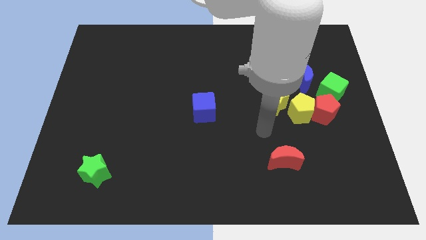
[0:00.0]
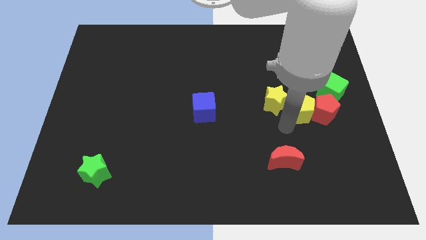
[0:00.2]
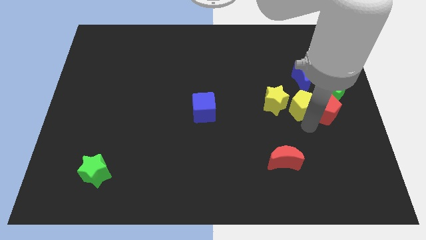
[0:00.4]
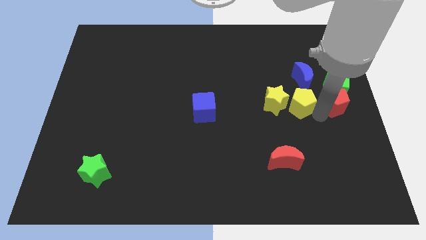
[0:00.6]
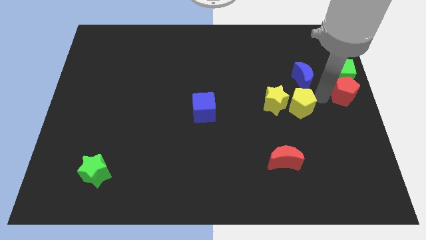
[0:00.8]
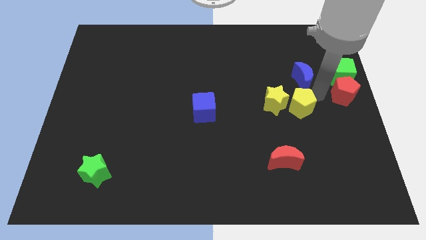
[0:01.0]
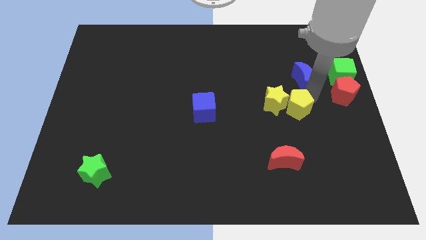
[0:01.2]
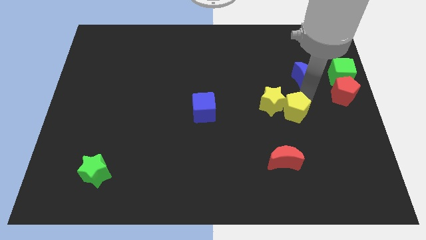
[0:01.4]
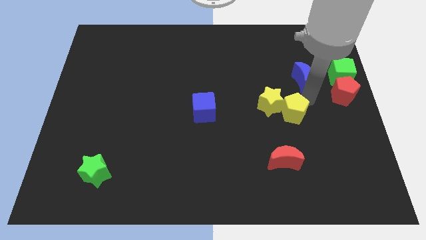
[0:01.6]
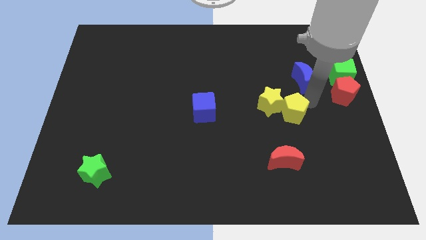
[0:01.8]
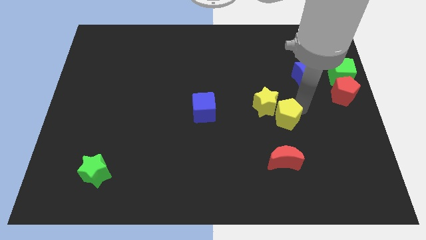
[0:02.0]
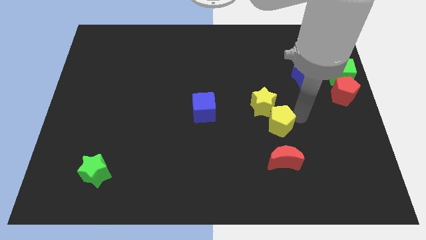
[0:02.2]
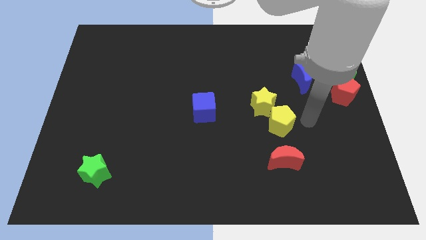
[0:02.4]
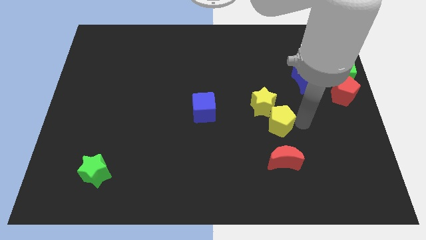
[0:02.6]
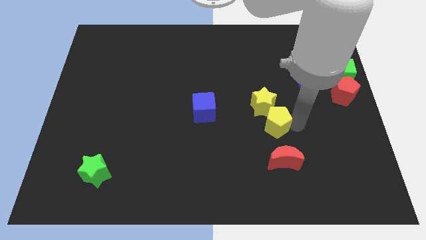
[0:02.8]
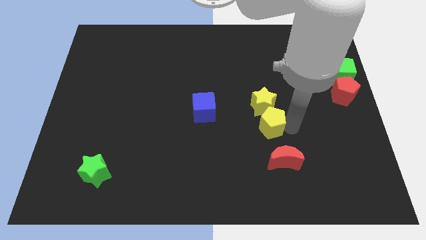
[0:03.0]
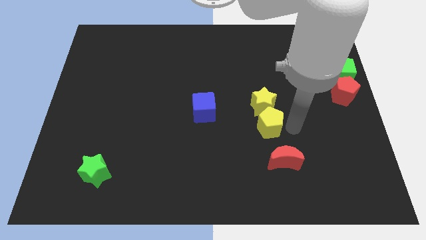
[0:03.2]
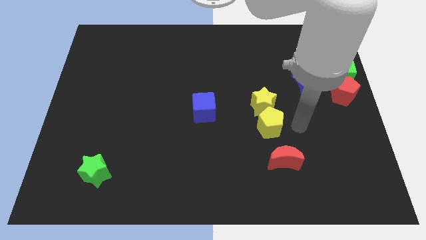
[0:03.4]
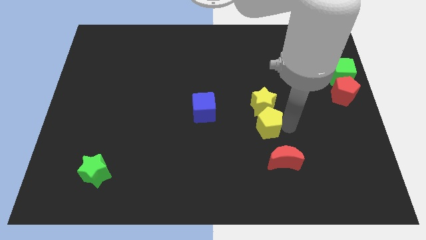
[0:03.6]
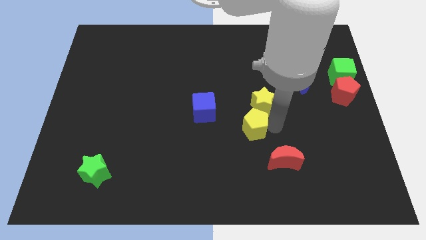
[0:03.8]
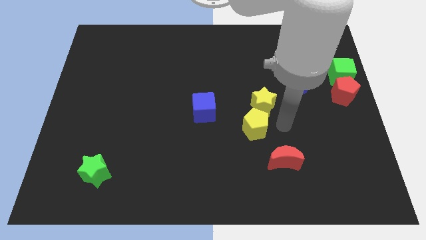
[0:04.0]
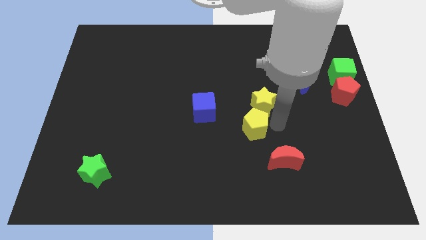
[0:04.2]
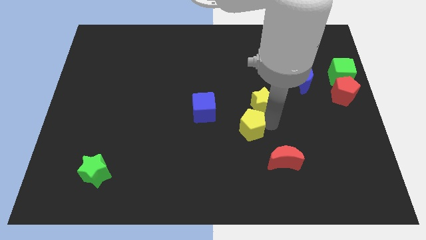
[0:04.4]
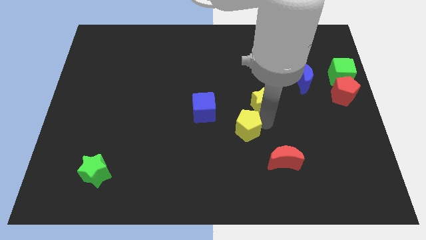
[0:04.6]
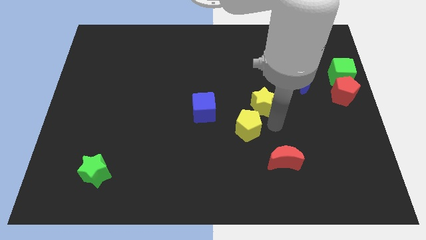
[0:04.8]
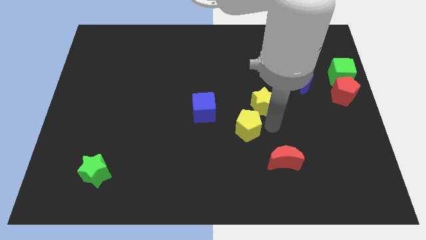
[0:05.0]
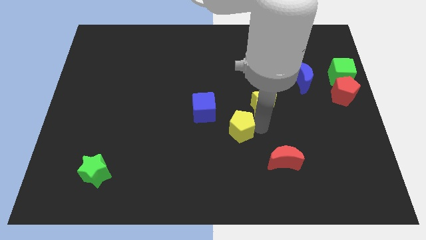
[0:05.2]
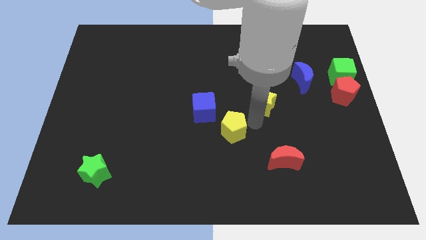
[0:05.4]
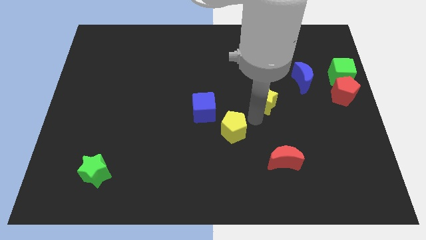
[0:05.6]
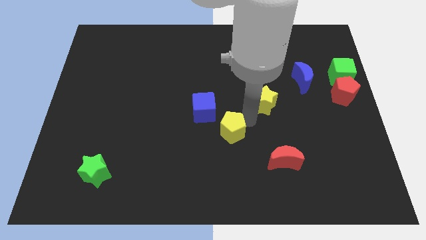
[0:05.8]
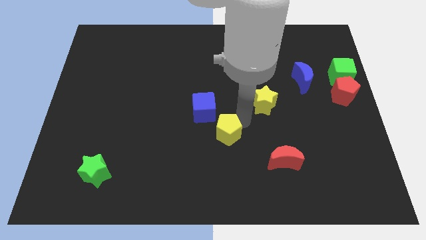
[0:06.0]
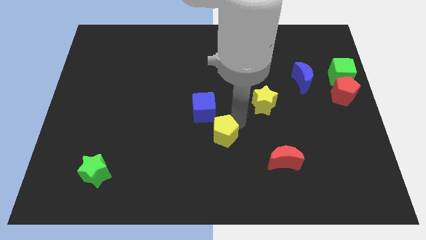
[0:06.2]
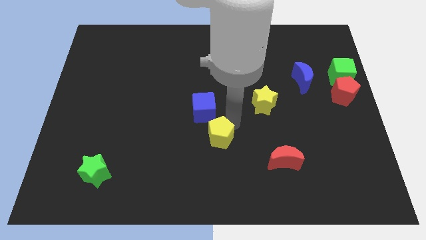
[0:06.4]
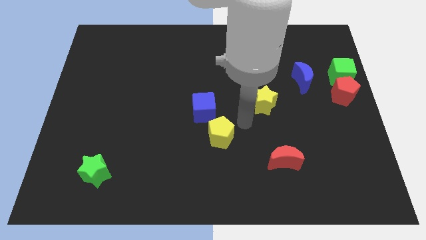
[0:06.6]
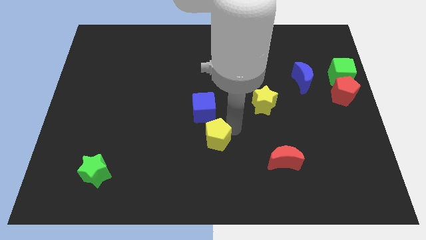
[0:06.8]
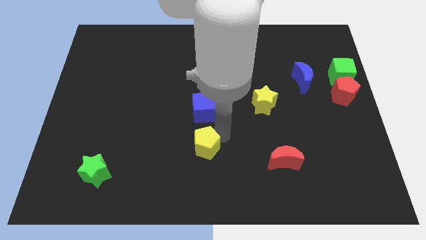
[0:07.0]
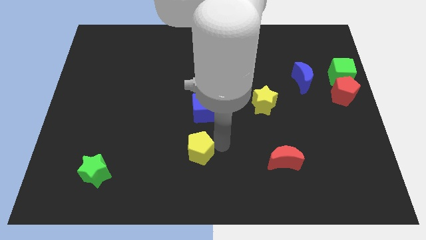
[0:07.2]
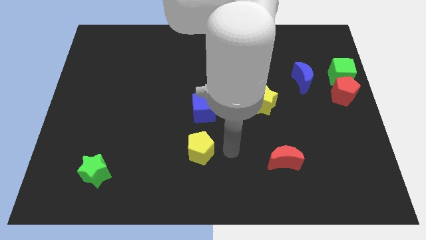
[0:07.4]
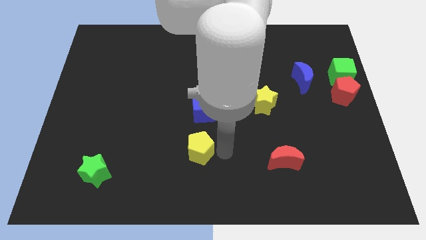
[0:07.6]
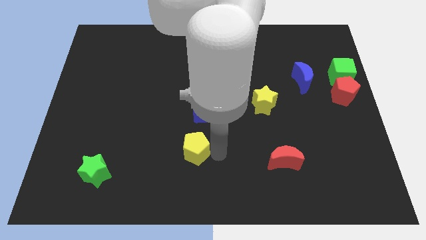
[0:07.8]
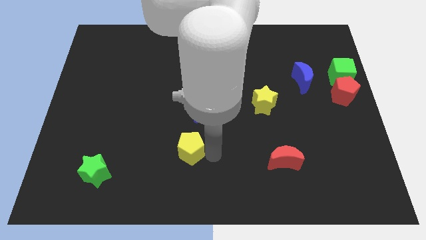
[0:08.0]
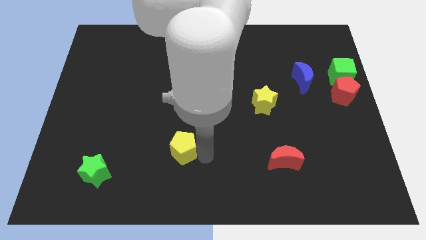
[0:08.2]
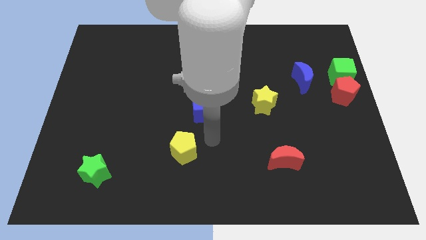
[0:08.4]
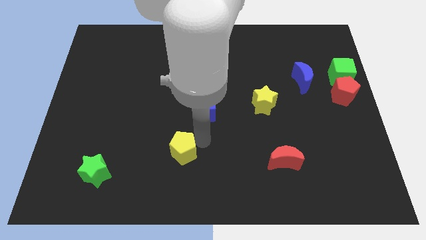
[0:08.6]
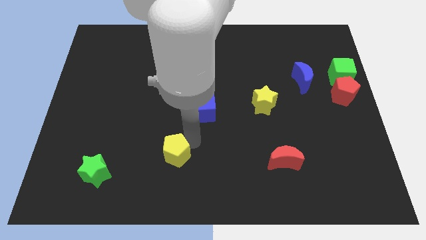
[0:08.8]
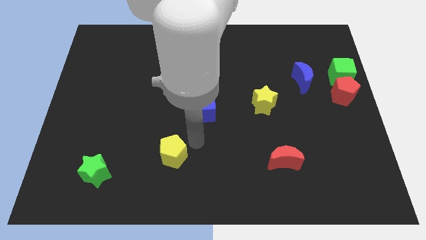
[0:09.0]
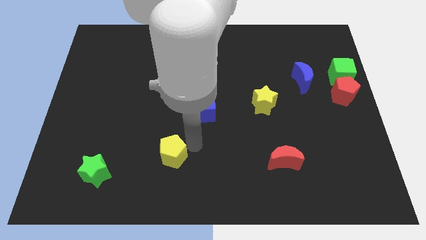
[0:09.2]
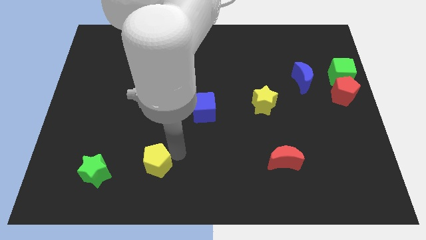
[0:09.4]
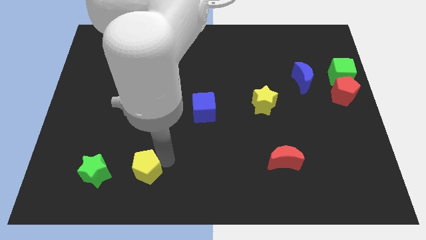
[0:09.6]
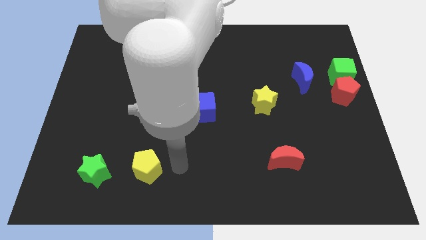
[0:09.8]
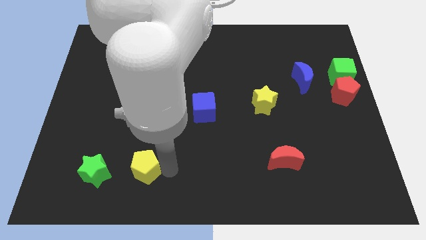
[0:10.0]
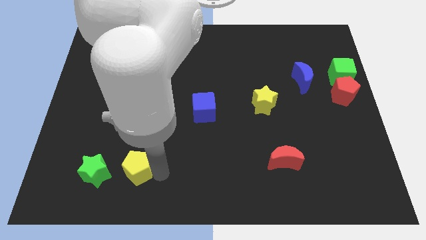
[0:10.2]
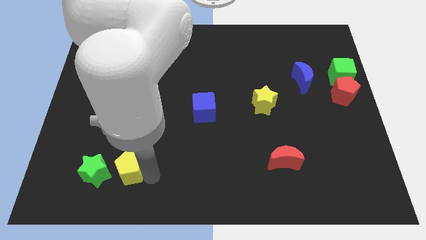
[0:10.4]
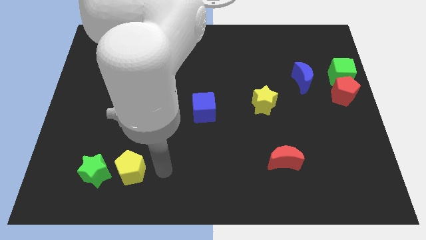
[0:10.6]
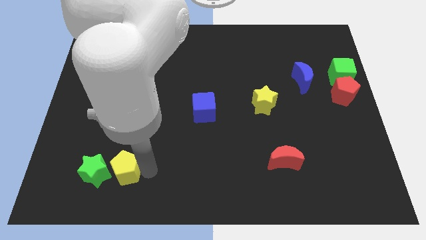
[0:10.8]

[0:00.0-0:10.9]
put the yellow pentagon towards the green star

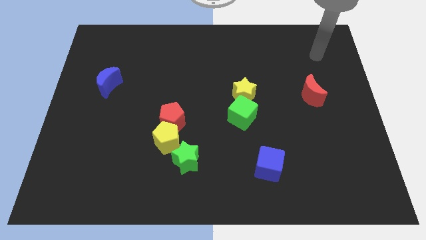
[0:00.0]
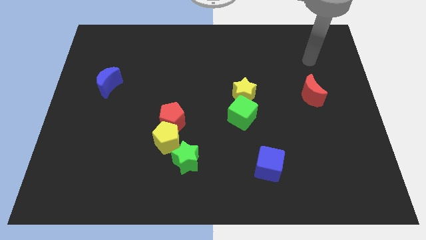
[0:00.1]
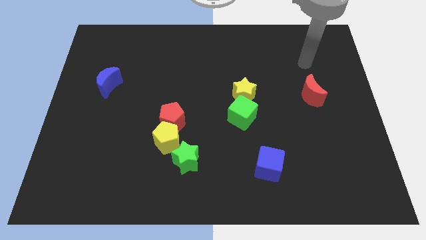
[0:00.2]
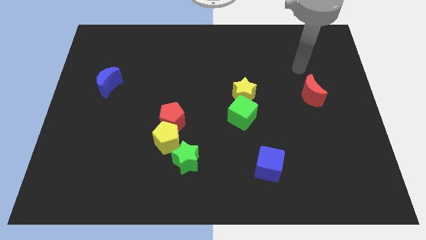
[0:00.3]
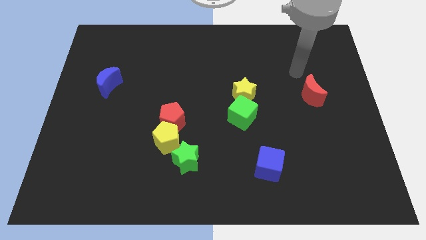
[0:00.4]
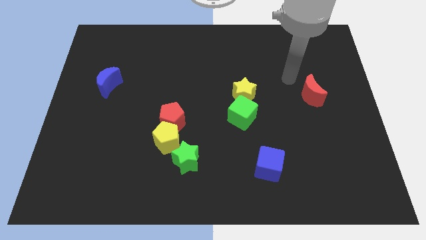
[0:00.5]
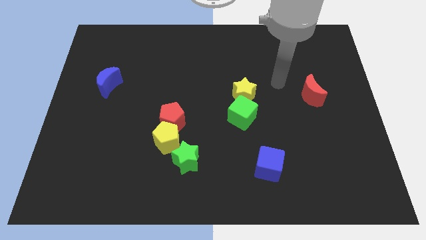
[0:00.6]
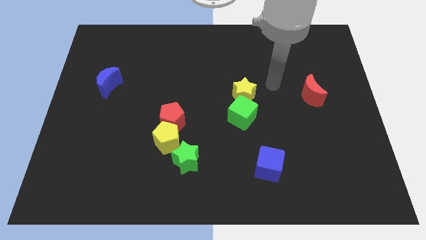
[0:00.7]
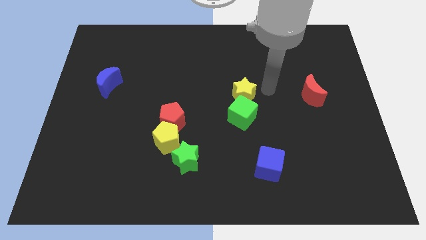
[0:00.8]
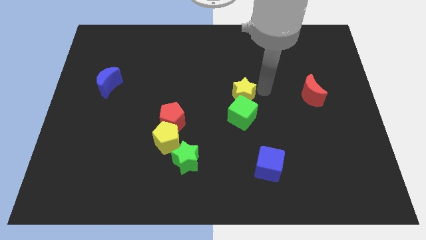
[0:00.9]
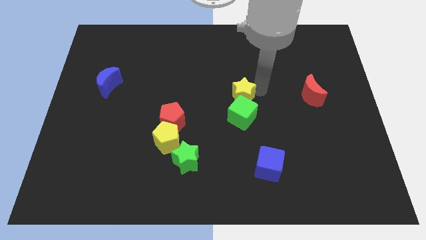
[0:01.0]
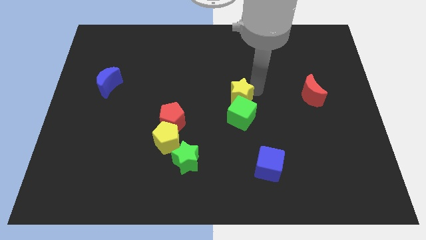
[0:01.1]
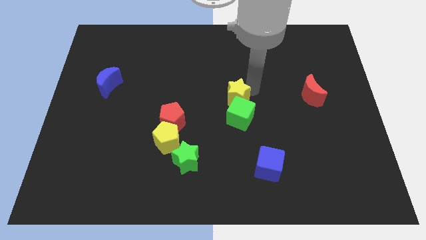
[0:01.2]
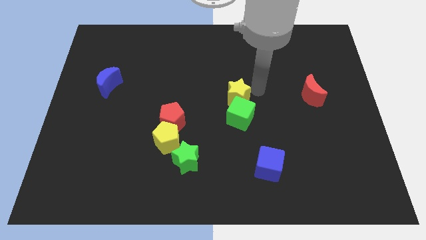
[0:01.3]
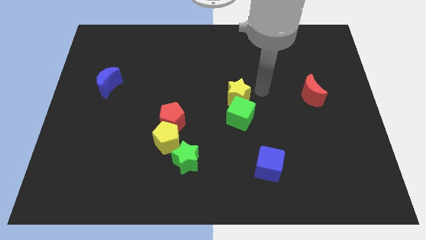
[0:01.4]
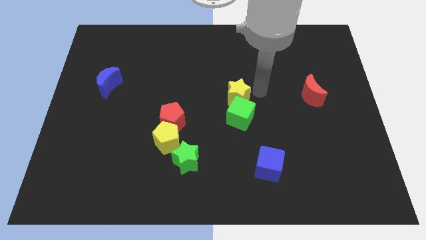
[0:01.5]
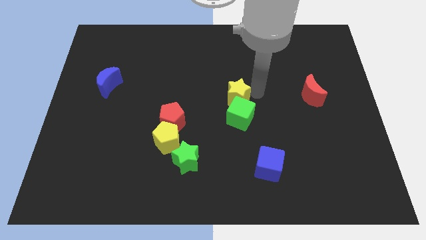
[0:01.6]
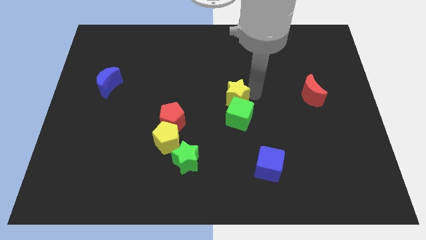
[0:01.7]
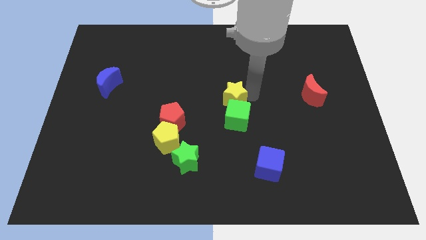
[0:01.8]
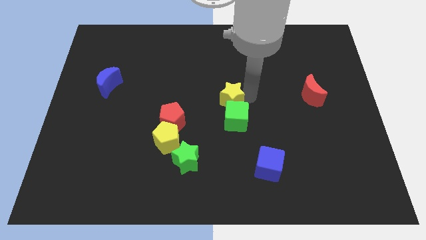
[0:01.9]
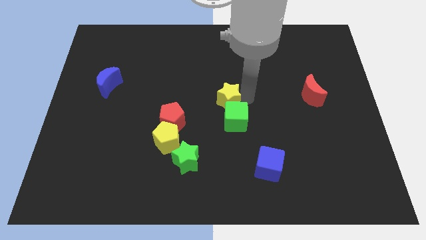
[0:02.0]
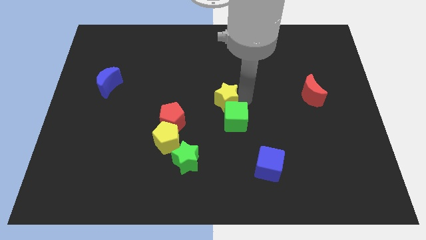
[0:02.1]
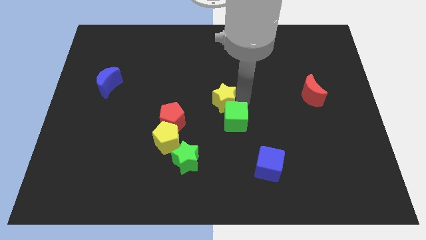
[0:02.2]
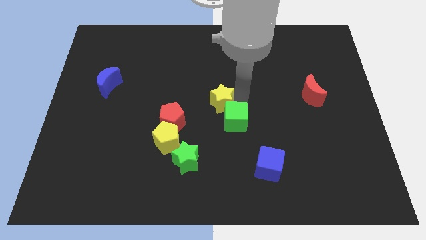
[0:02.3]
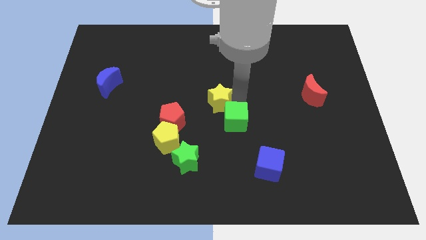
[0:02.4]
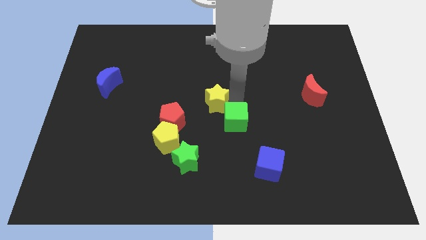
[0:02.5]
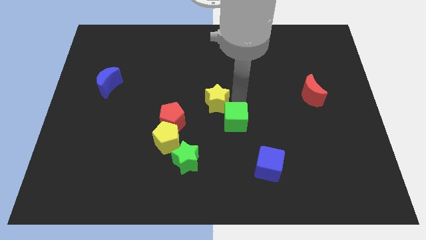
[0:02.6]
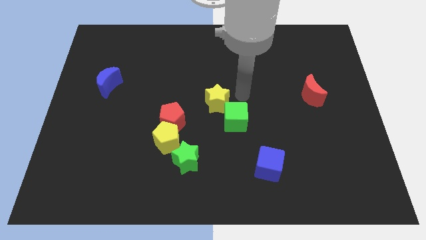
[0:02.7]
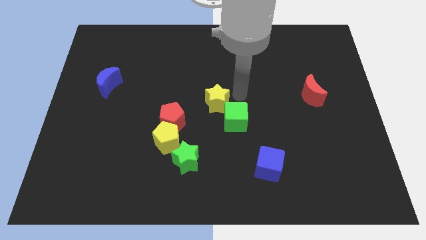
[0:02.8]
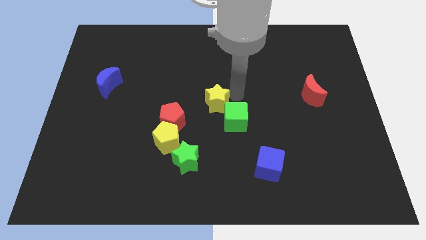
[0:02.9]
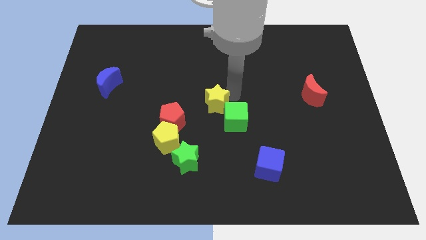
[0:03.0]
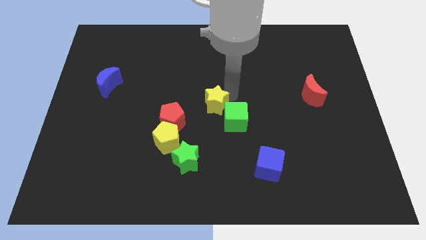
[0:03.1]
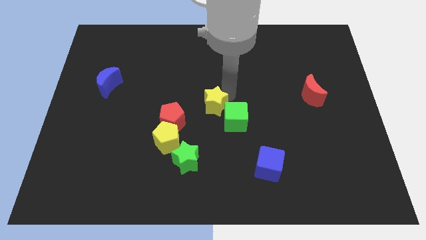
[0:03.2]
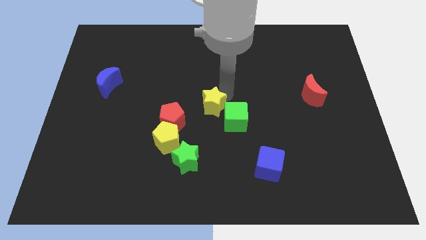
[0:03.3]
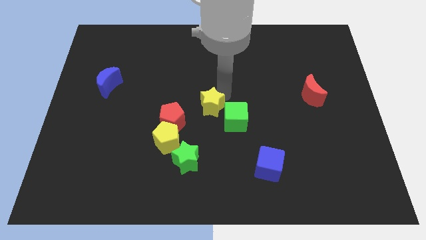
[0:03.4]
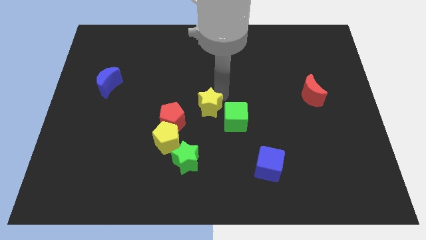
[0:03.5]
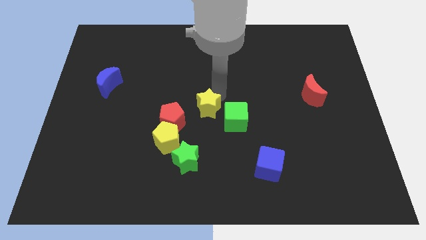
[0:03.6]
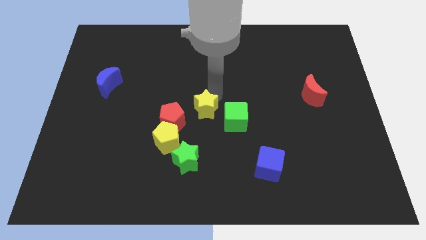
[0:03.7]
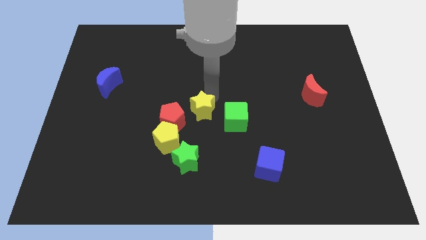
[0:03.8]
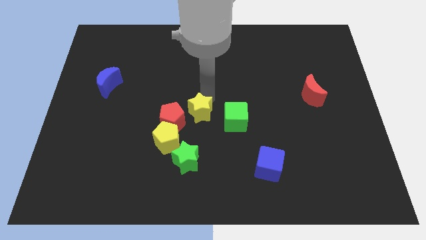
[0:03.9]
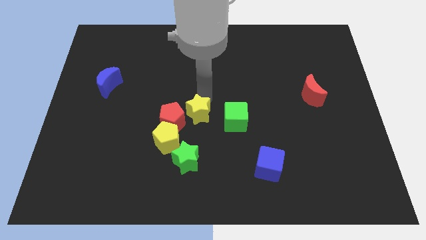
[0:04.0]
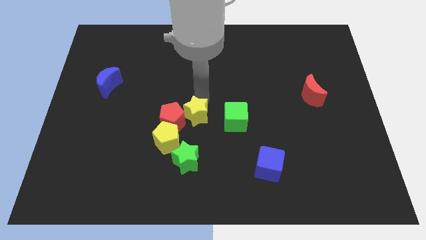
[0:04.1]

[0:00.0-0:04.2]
put the yellow star to the red pentagon
